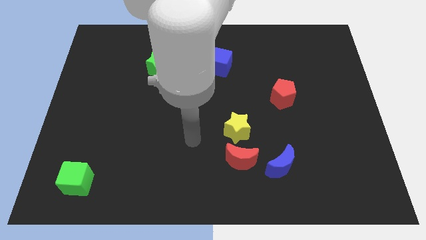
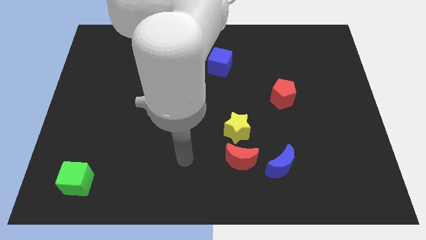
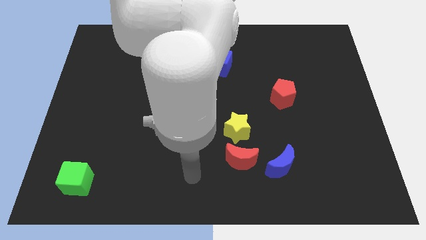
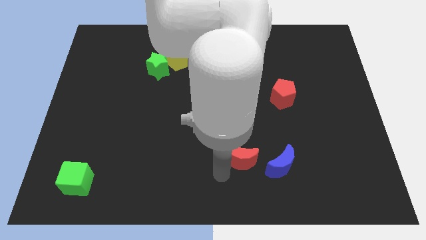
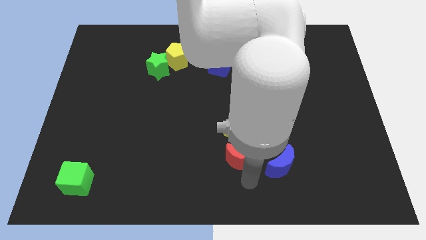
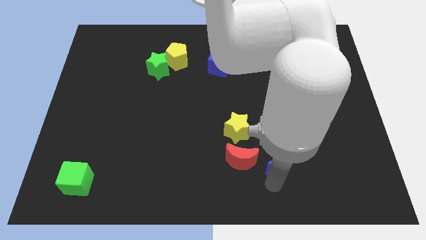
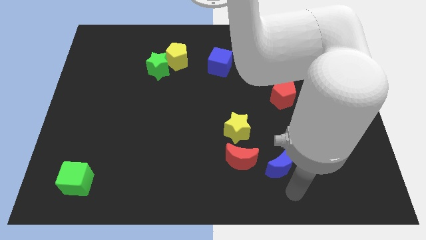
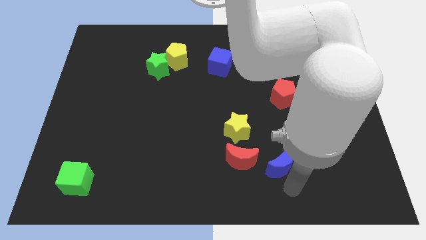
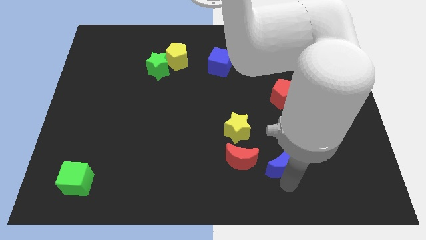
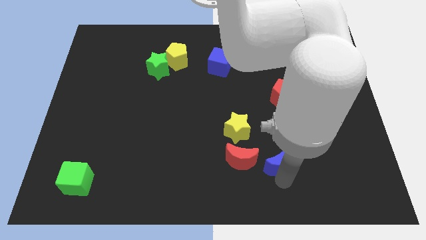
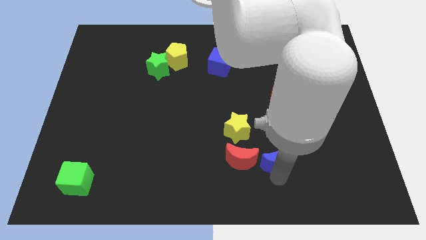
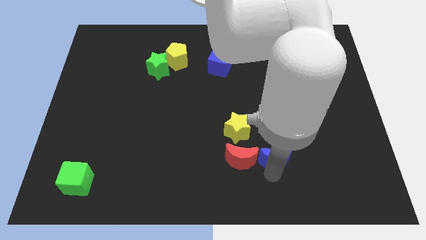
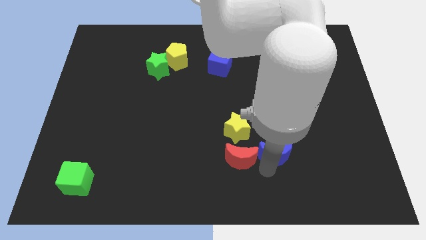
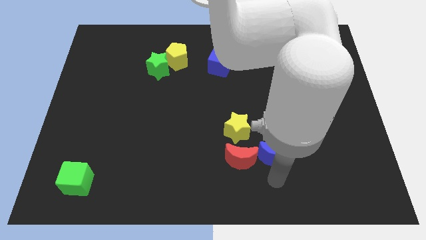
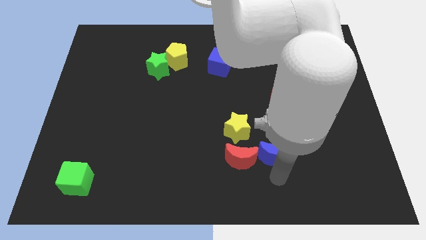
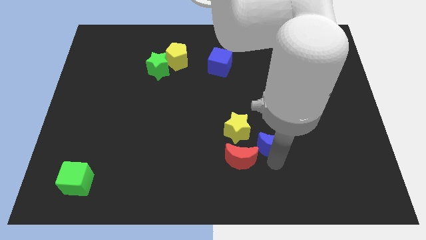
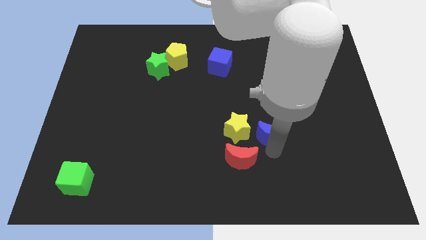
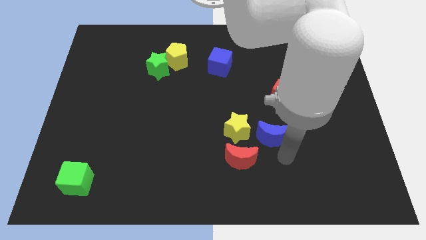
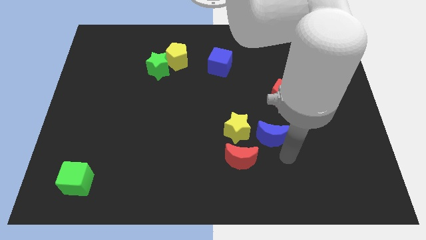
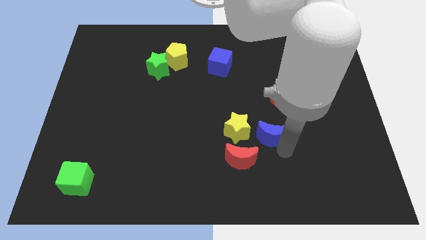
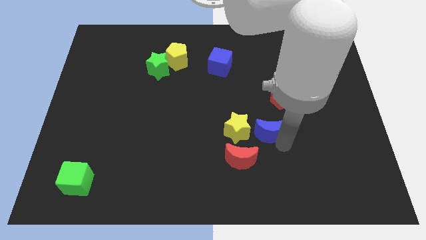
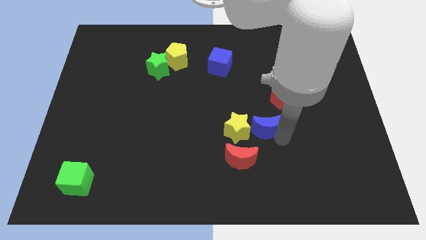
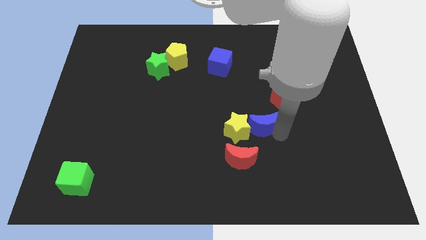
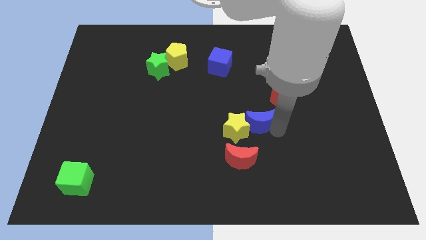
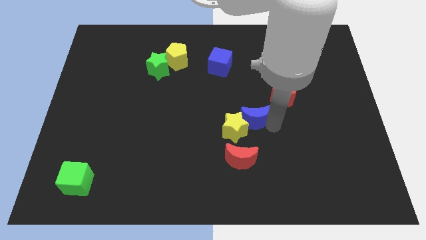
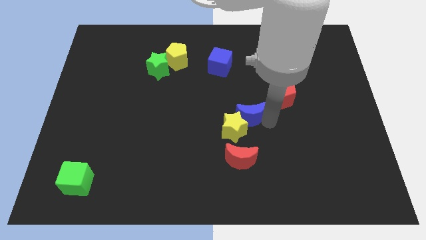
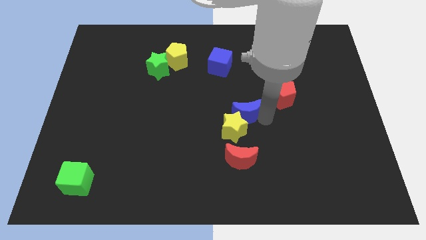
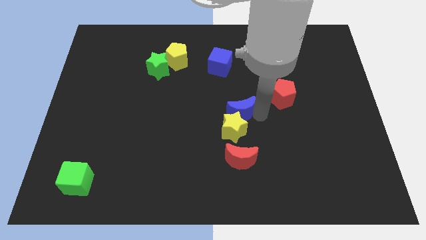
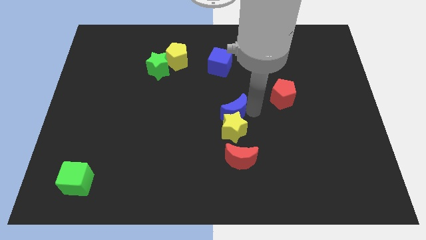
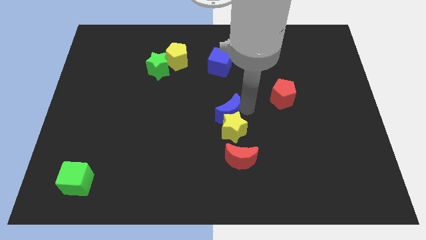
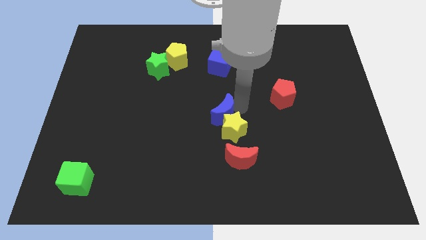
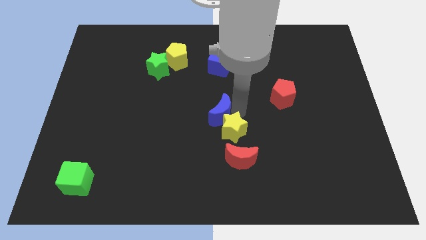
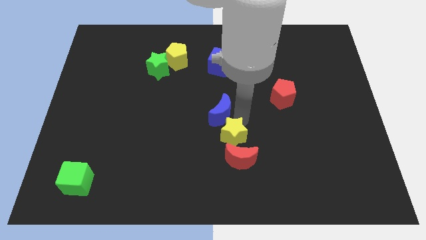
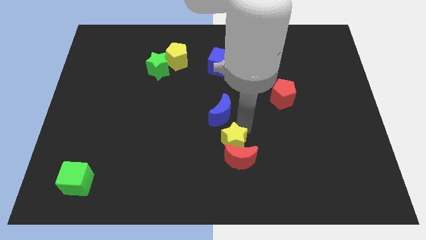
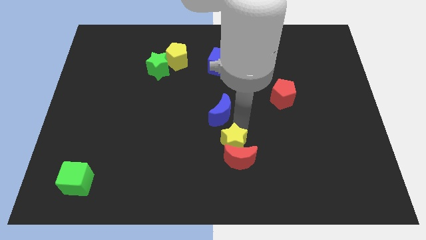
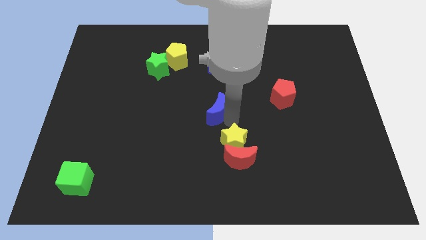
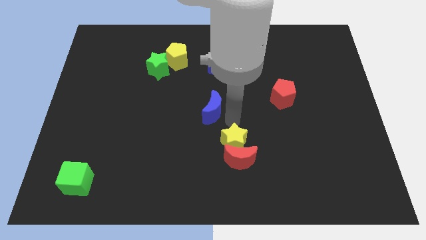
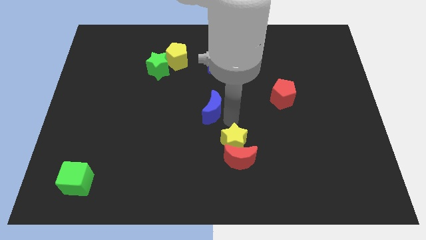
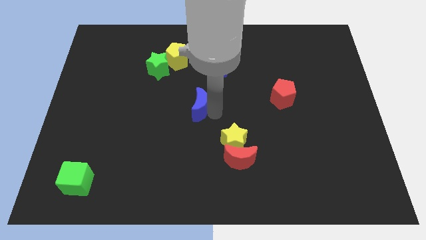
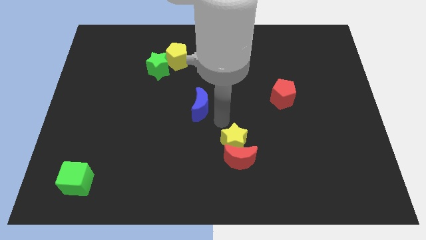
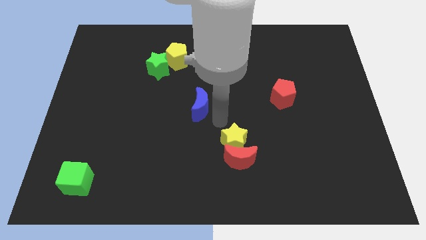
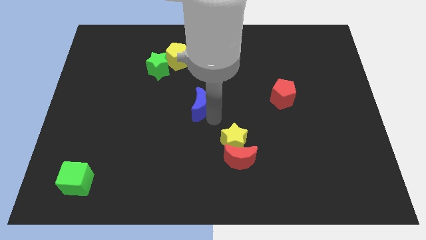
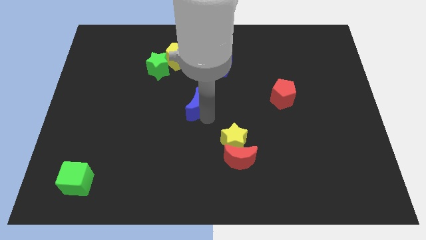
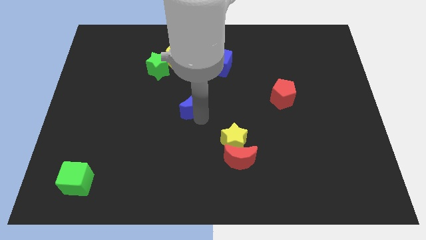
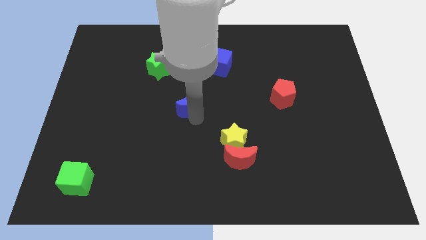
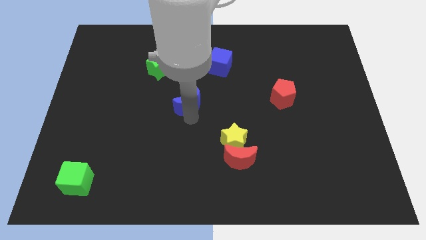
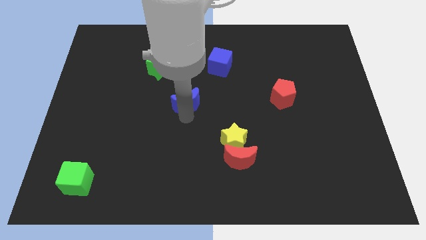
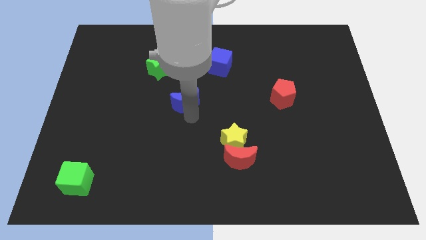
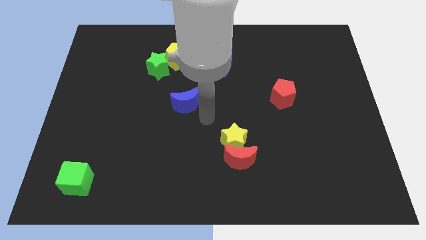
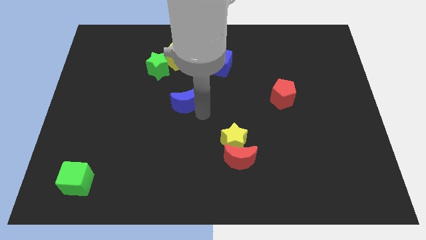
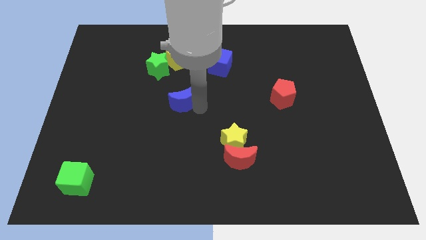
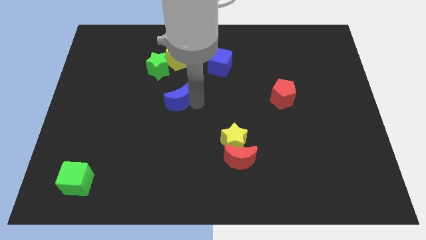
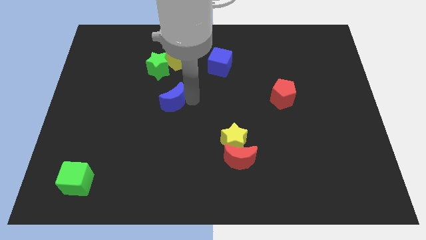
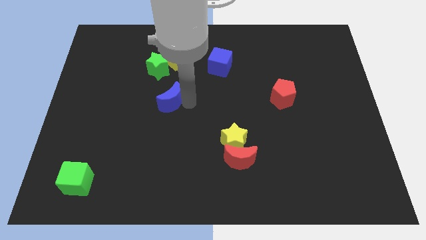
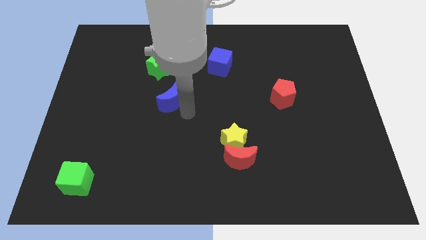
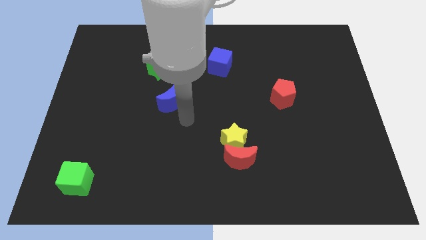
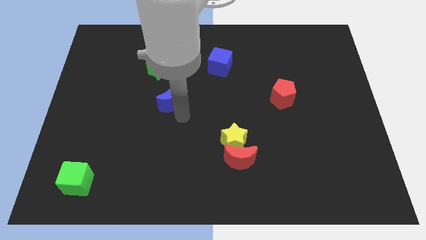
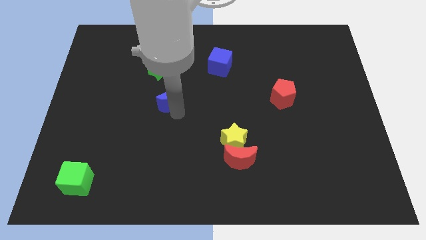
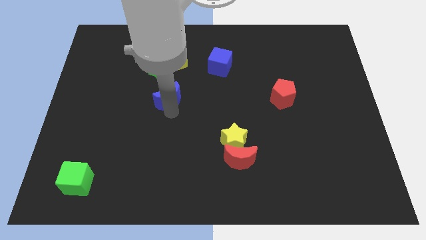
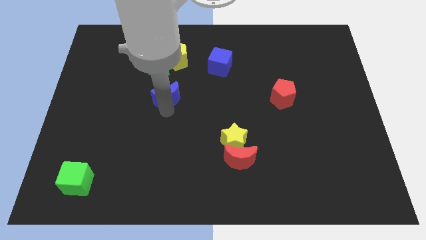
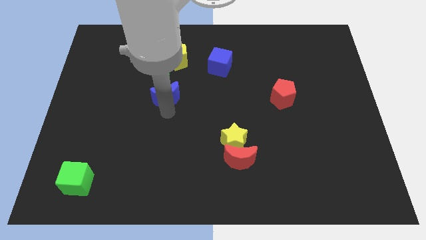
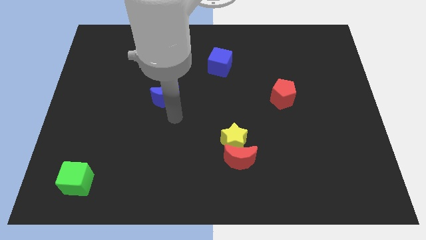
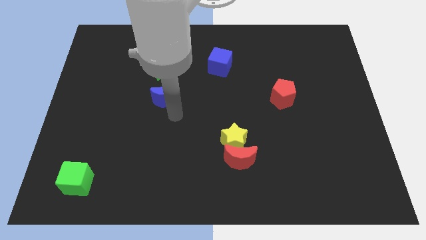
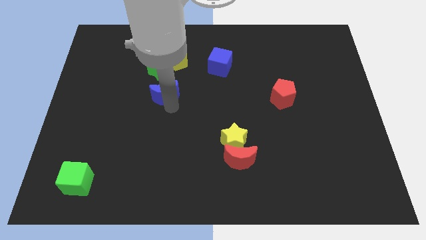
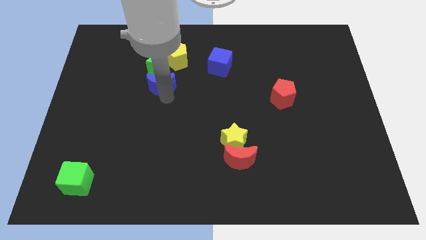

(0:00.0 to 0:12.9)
put the blue moon diagonally down and to the left of the yellow pentagon

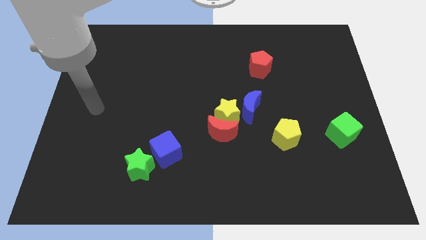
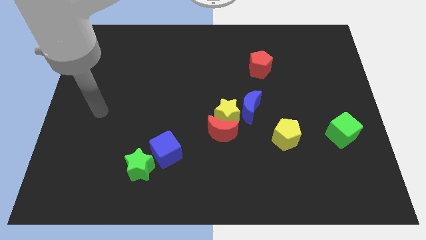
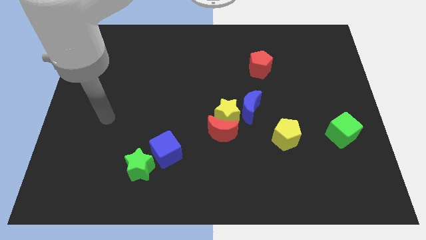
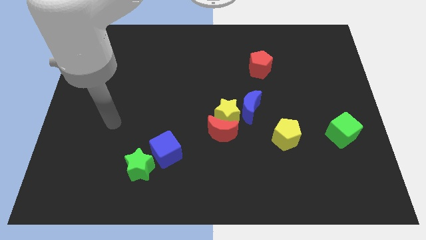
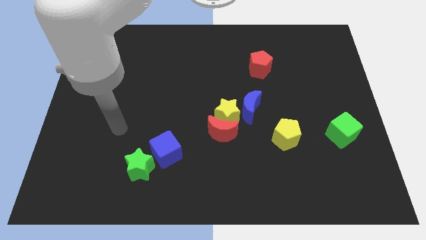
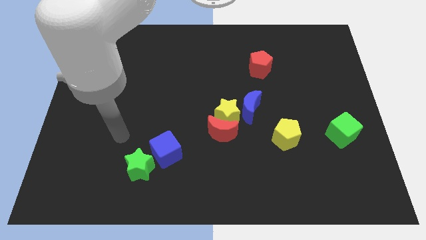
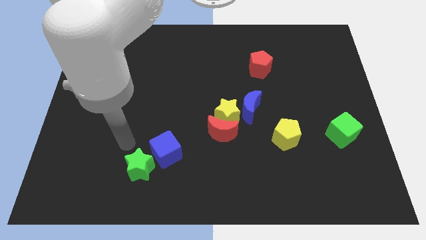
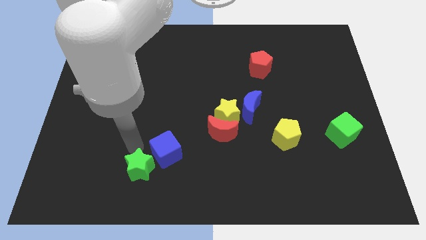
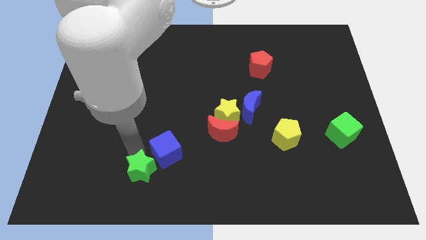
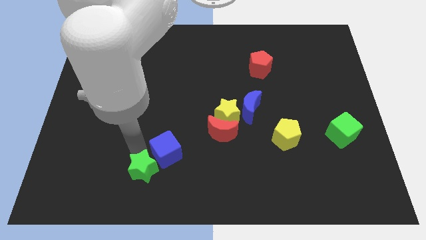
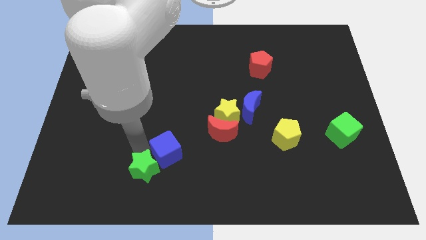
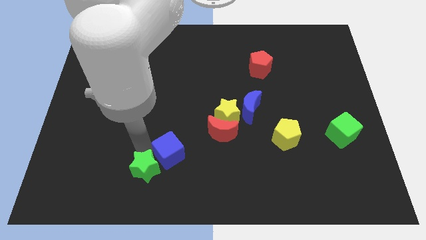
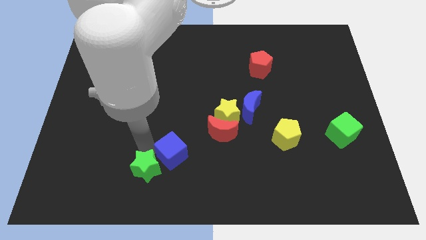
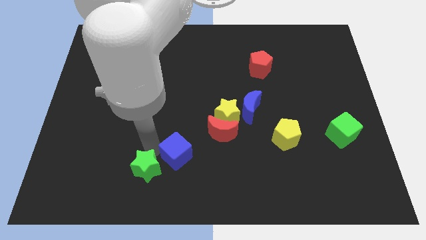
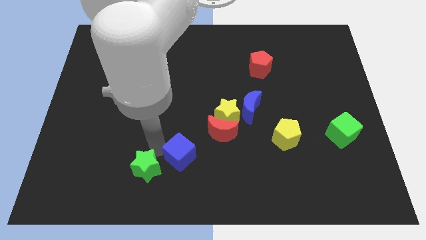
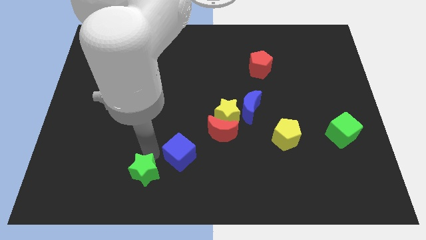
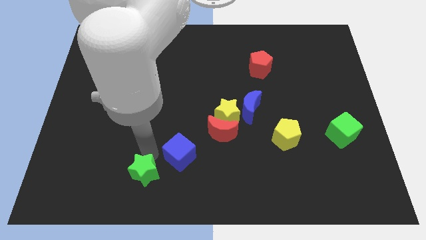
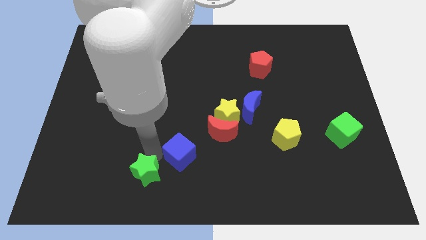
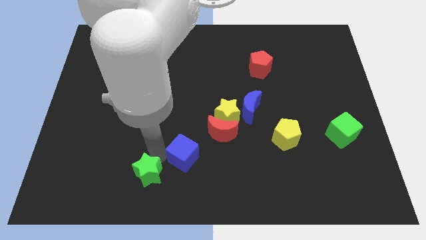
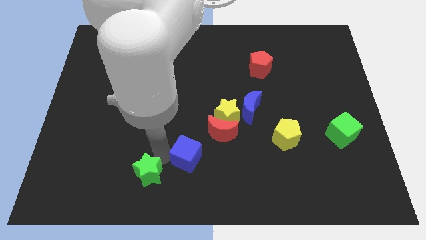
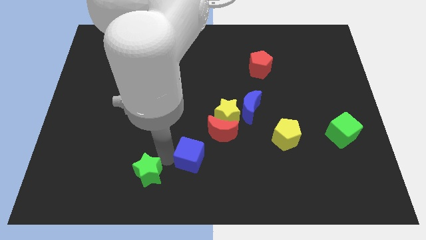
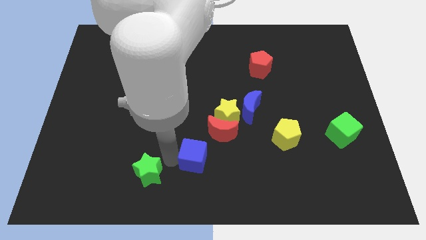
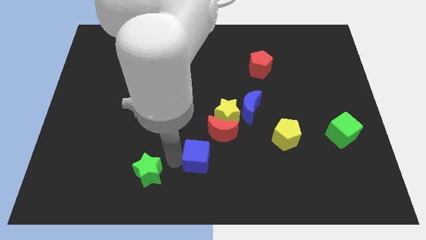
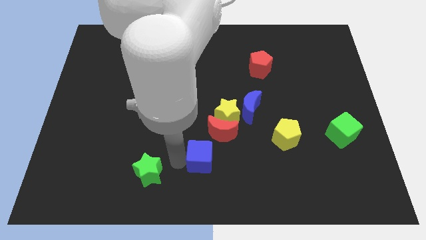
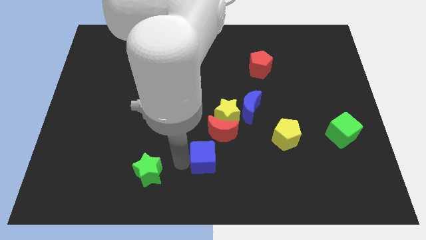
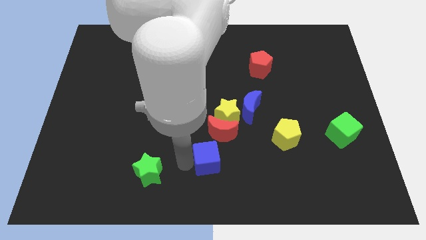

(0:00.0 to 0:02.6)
put the blue cube below the yellow star
